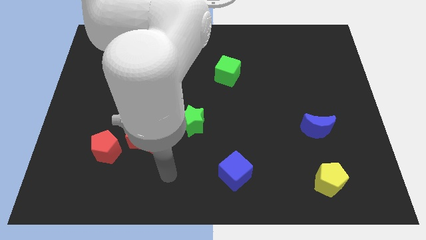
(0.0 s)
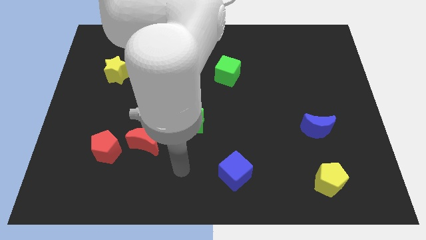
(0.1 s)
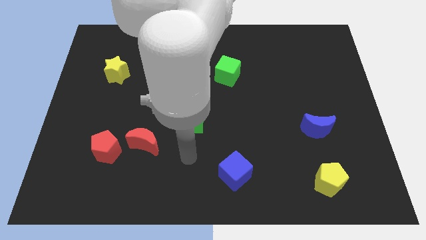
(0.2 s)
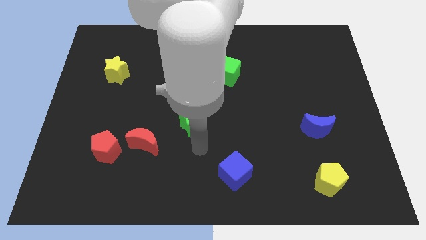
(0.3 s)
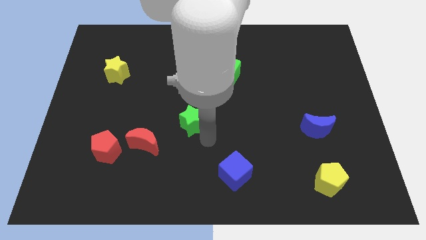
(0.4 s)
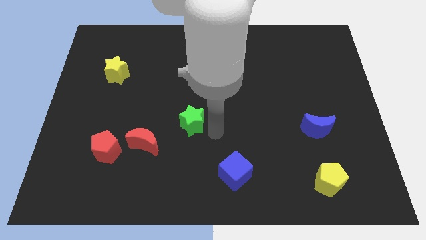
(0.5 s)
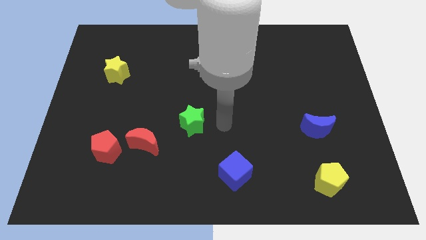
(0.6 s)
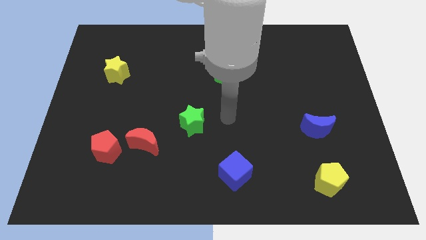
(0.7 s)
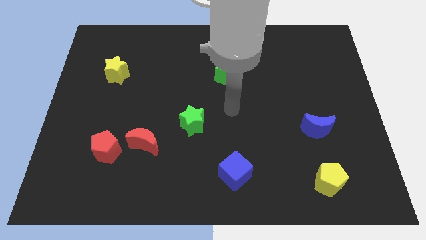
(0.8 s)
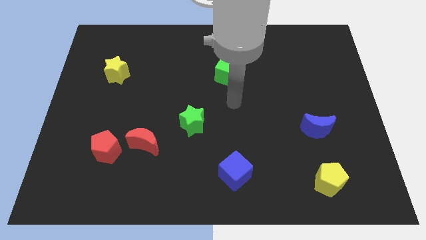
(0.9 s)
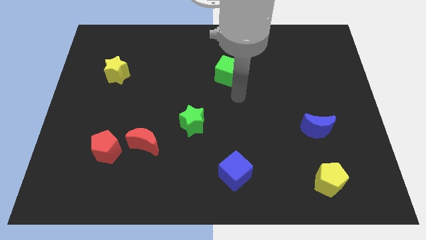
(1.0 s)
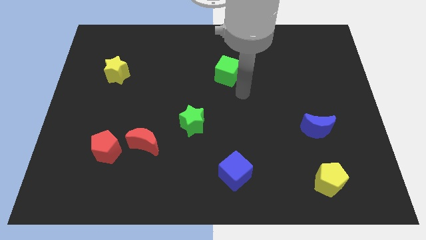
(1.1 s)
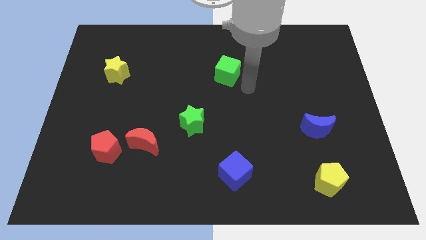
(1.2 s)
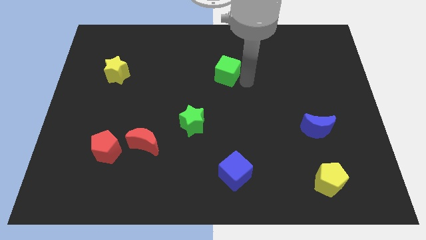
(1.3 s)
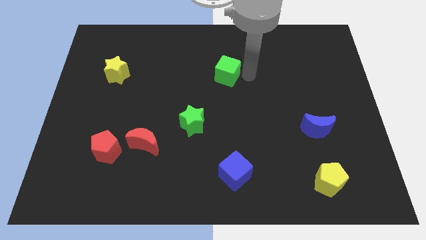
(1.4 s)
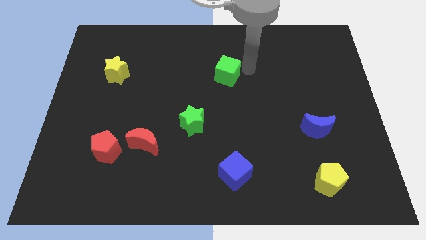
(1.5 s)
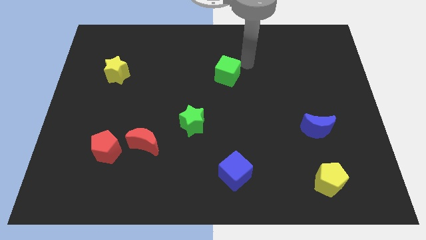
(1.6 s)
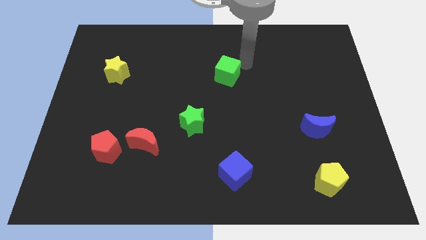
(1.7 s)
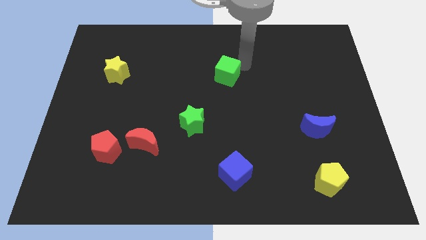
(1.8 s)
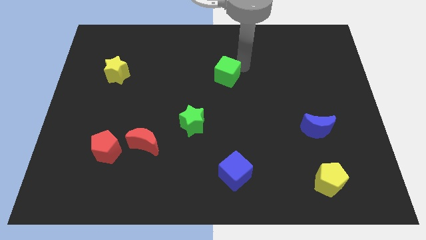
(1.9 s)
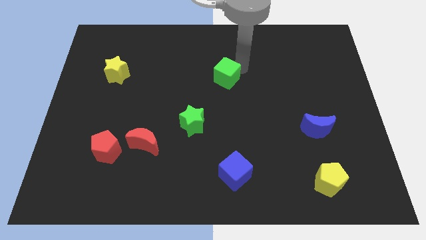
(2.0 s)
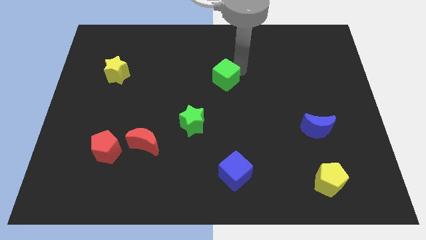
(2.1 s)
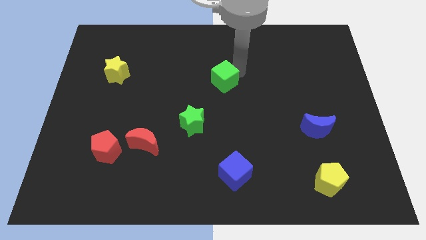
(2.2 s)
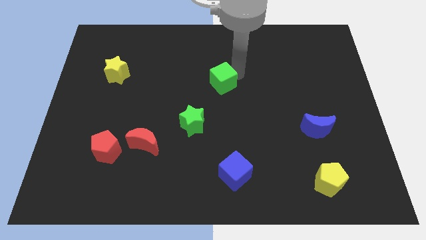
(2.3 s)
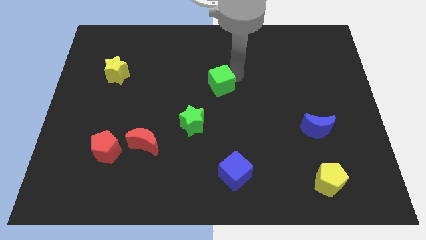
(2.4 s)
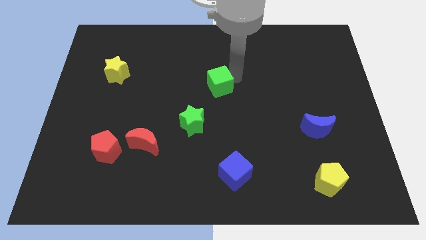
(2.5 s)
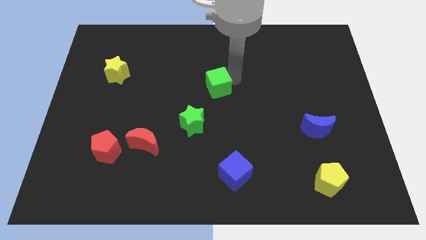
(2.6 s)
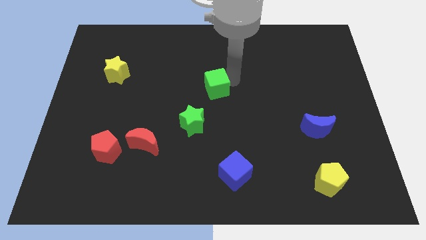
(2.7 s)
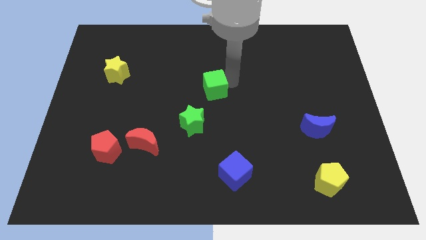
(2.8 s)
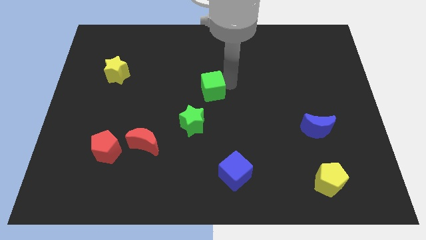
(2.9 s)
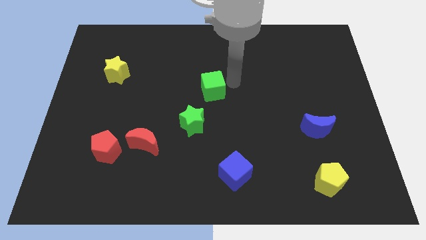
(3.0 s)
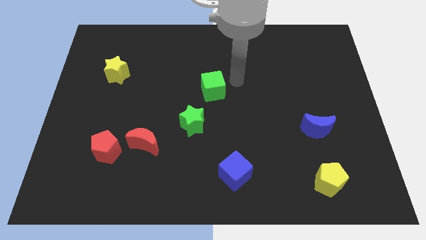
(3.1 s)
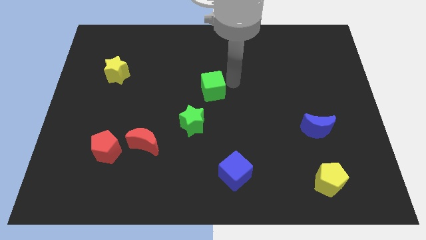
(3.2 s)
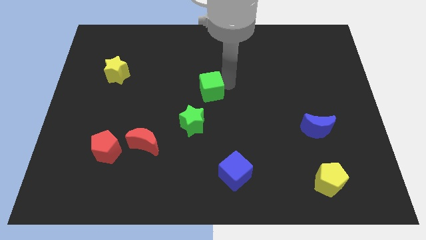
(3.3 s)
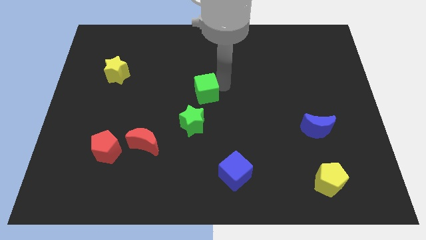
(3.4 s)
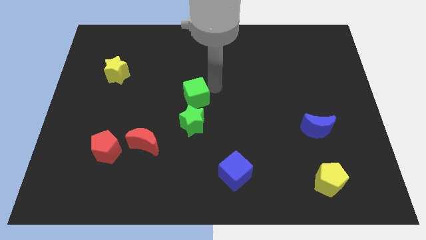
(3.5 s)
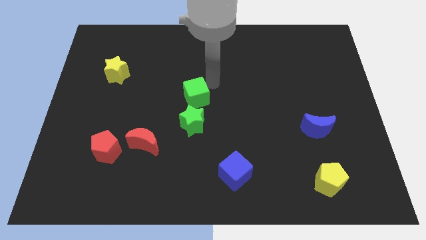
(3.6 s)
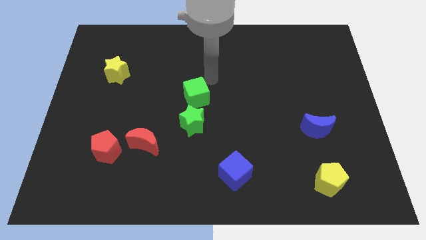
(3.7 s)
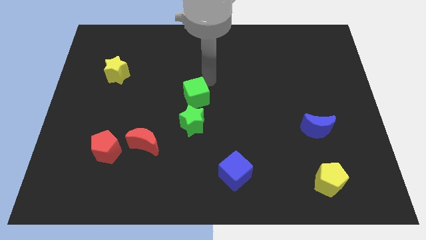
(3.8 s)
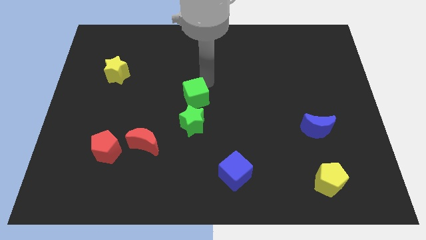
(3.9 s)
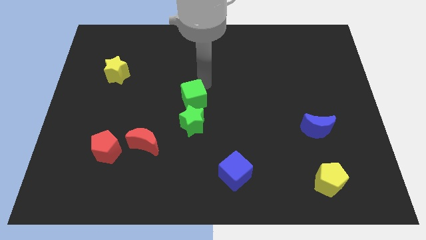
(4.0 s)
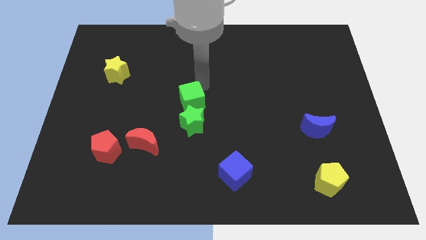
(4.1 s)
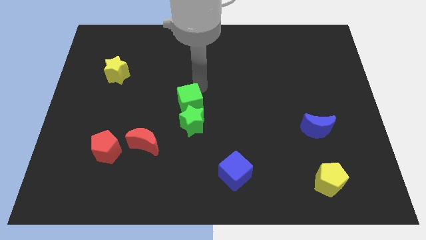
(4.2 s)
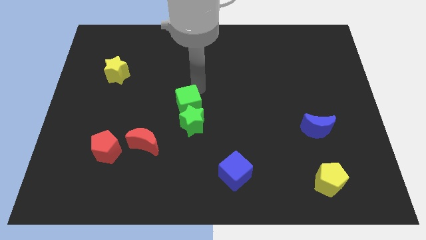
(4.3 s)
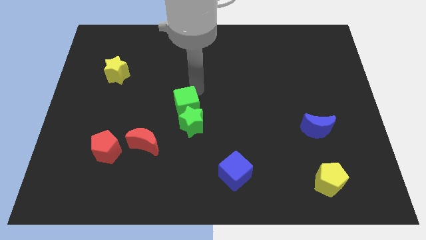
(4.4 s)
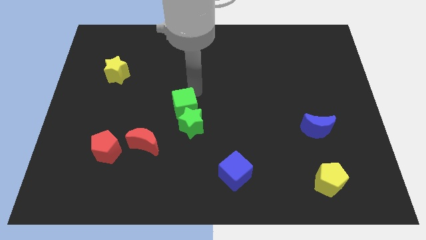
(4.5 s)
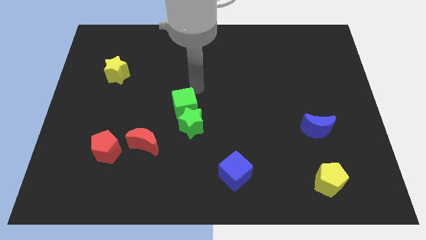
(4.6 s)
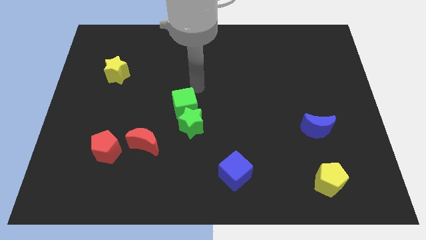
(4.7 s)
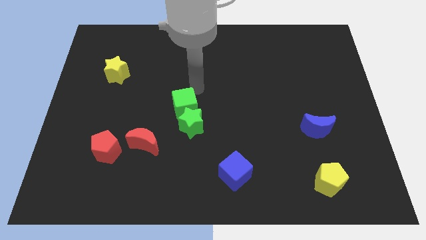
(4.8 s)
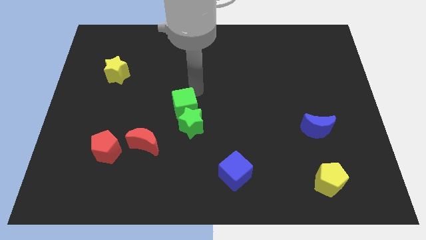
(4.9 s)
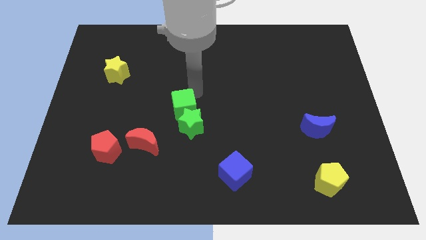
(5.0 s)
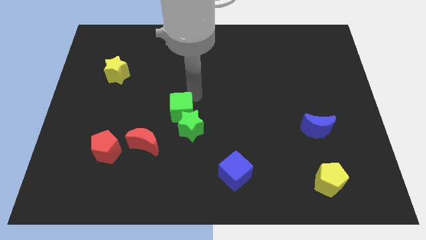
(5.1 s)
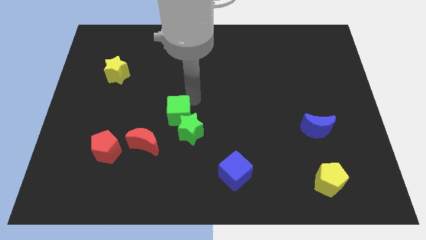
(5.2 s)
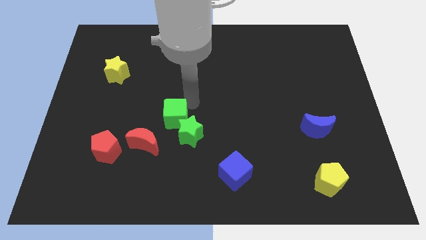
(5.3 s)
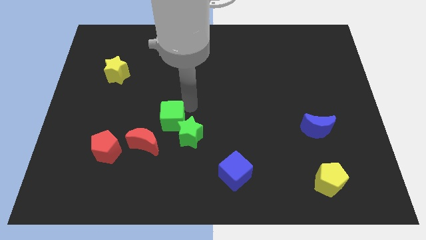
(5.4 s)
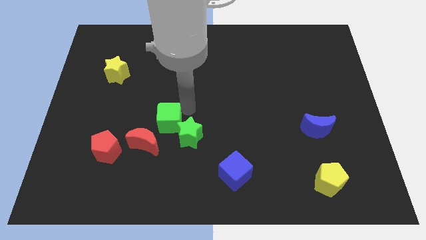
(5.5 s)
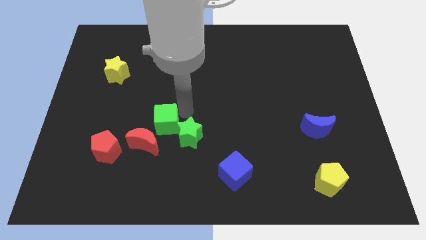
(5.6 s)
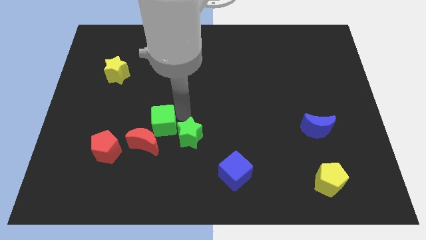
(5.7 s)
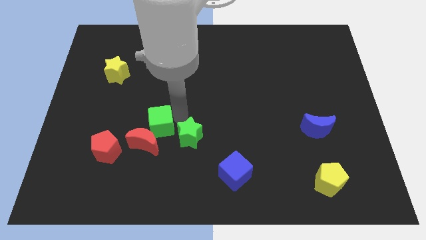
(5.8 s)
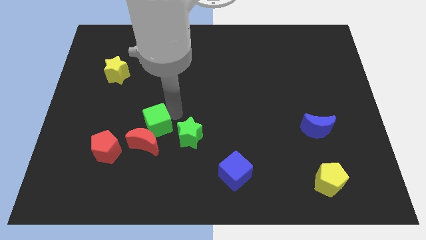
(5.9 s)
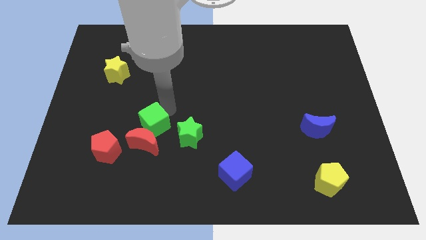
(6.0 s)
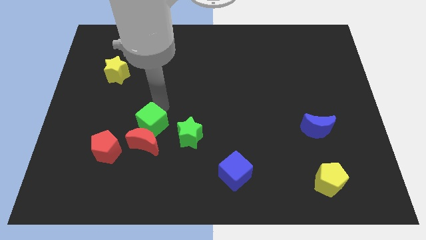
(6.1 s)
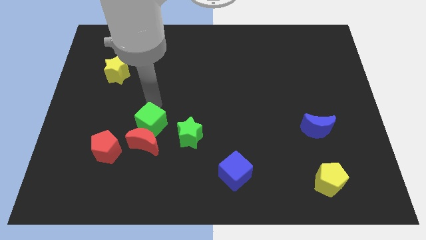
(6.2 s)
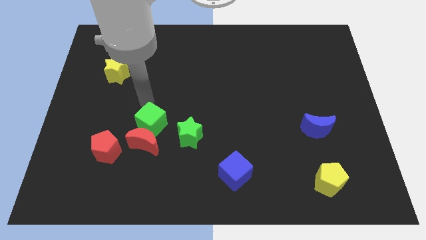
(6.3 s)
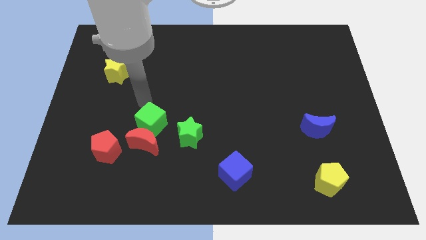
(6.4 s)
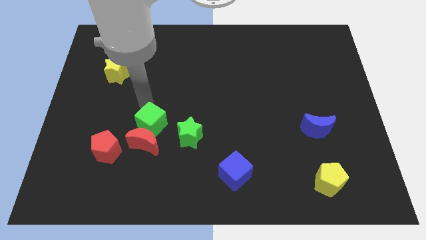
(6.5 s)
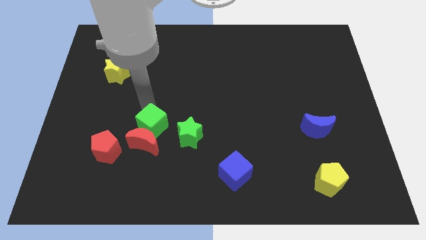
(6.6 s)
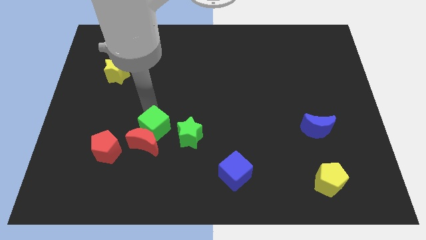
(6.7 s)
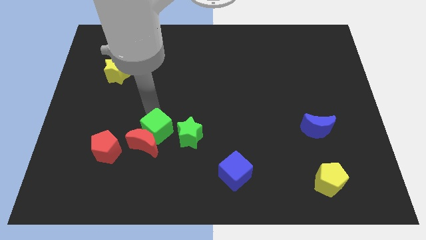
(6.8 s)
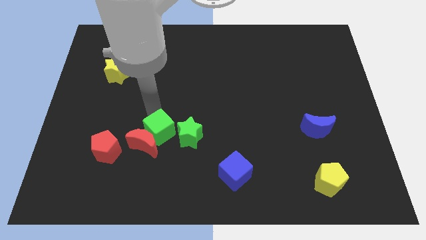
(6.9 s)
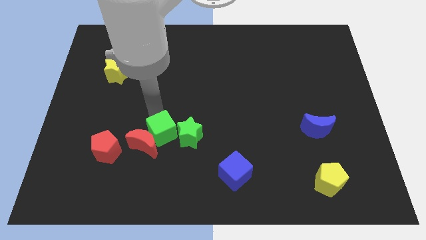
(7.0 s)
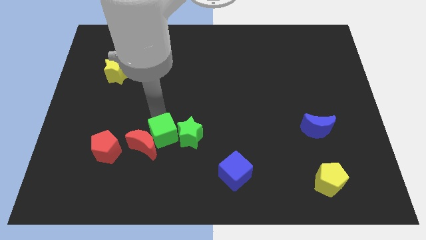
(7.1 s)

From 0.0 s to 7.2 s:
push the green cube diagonally down and to the left of the green star
